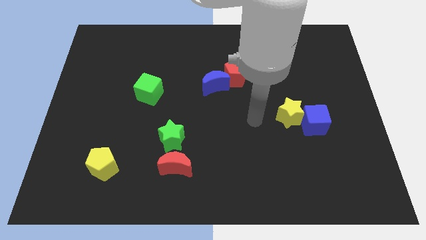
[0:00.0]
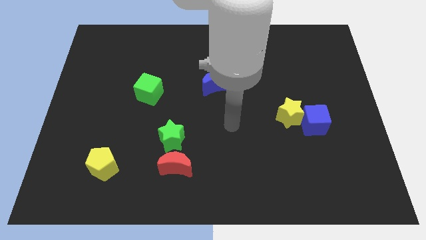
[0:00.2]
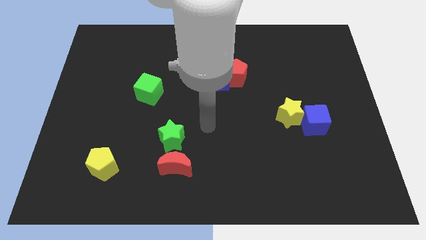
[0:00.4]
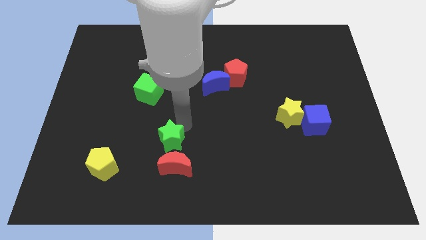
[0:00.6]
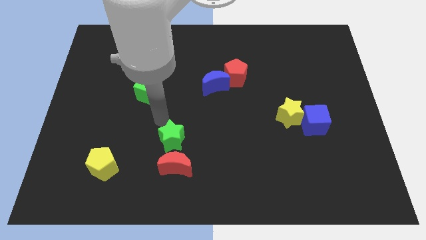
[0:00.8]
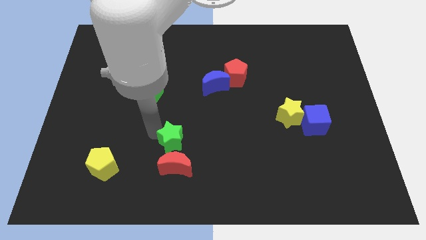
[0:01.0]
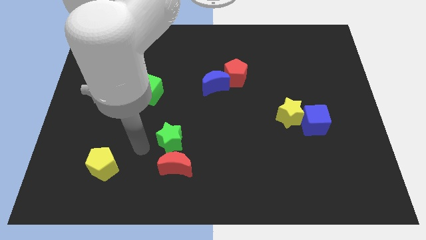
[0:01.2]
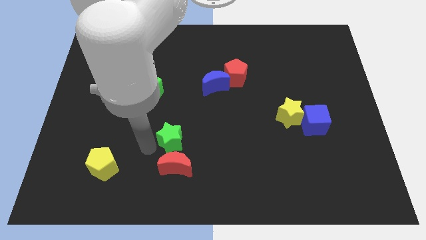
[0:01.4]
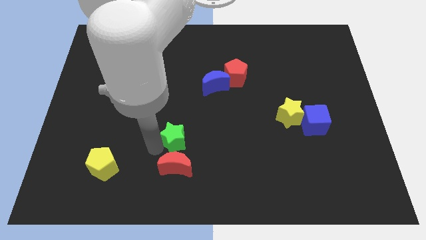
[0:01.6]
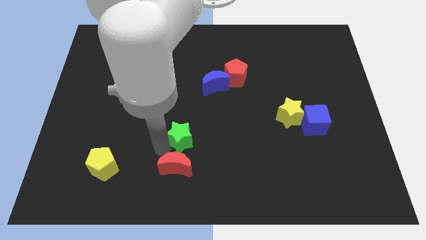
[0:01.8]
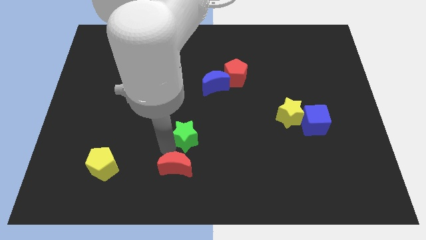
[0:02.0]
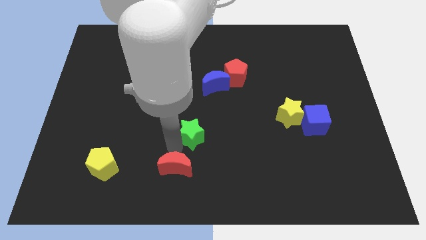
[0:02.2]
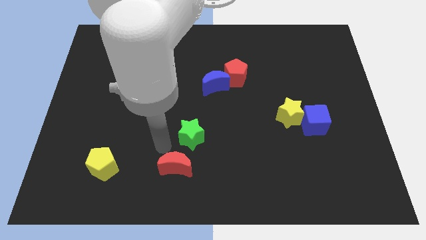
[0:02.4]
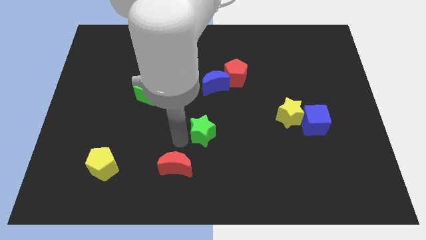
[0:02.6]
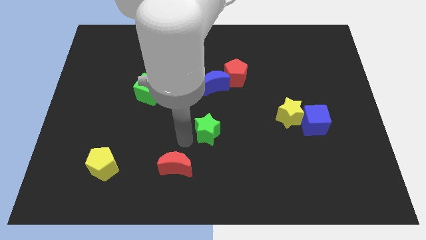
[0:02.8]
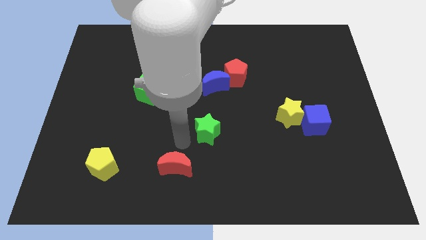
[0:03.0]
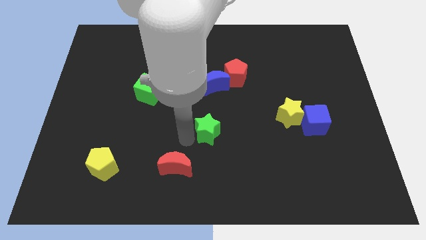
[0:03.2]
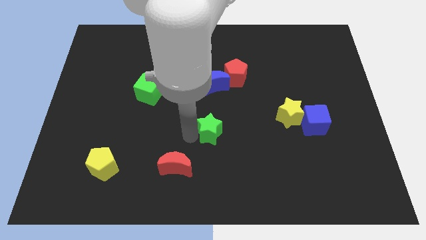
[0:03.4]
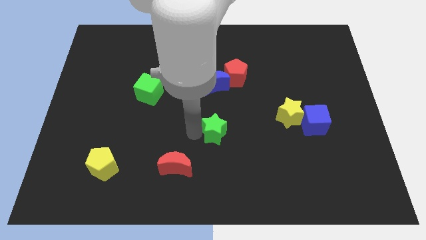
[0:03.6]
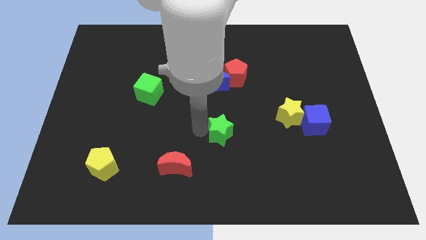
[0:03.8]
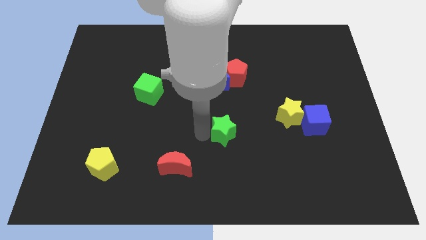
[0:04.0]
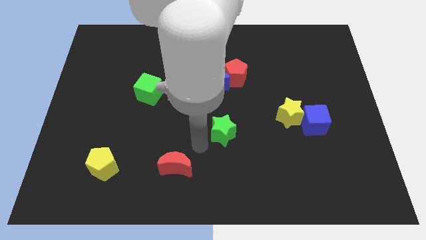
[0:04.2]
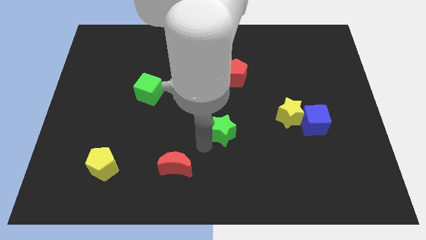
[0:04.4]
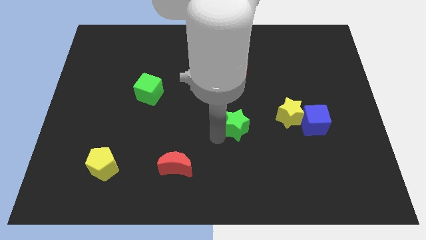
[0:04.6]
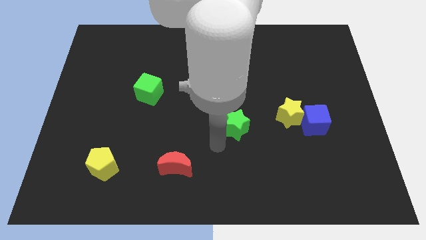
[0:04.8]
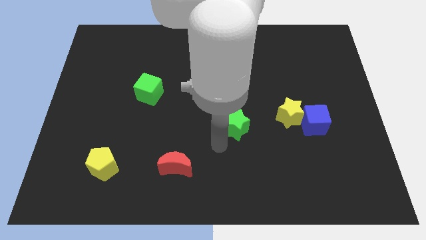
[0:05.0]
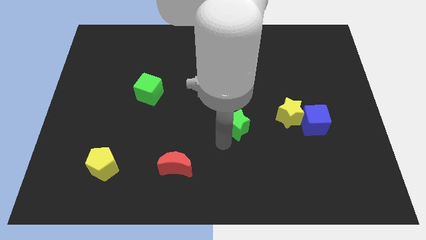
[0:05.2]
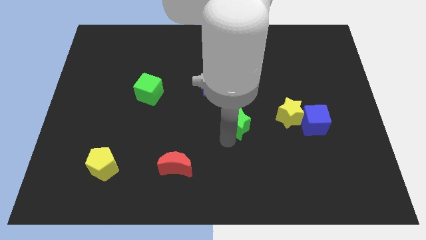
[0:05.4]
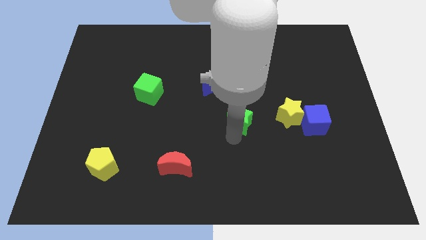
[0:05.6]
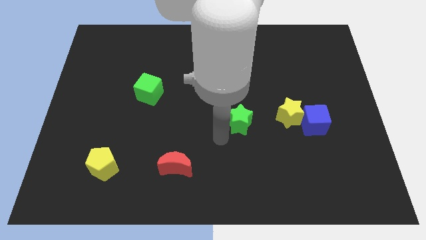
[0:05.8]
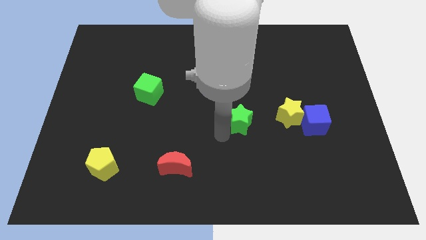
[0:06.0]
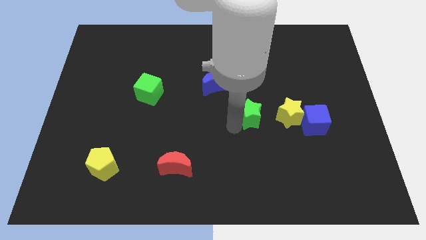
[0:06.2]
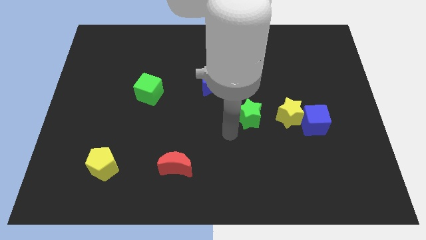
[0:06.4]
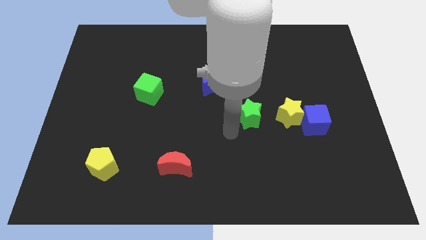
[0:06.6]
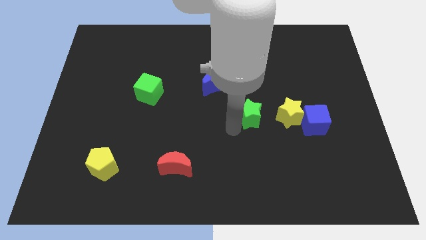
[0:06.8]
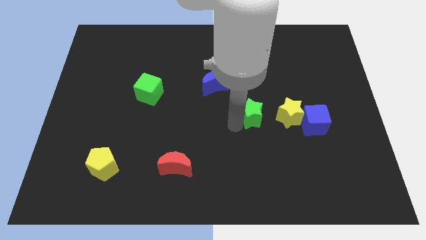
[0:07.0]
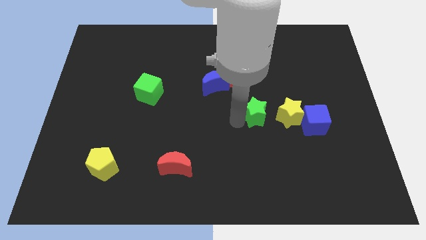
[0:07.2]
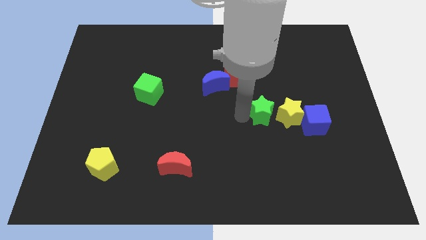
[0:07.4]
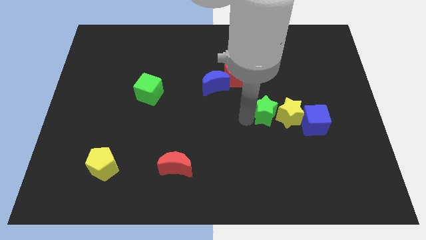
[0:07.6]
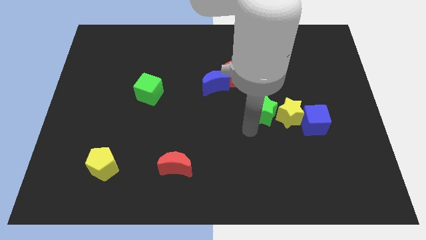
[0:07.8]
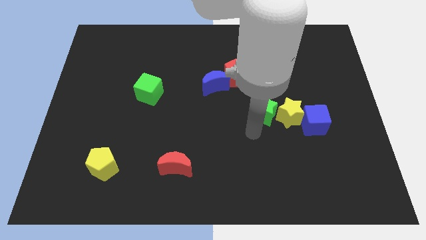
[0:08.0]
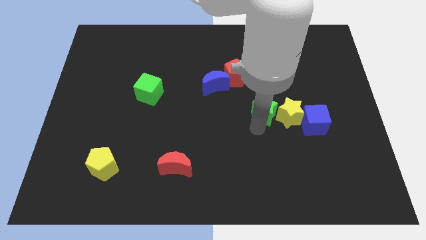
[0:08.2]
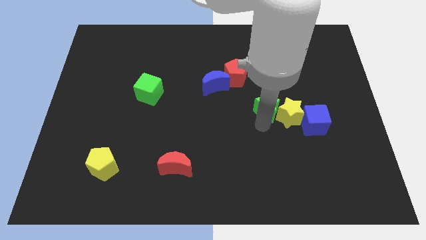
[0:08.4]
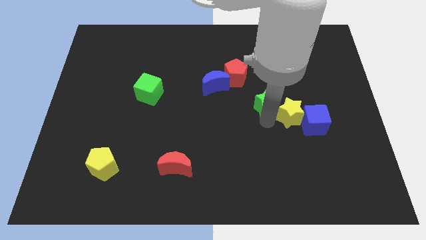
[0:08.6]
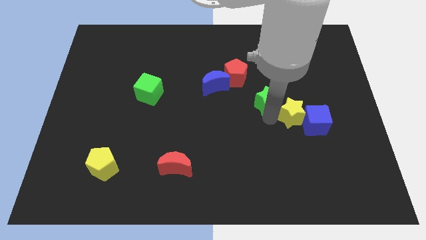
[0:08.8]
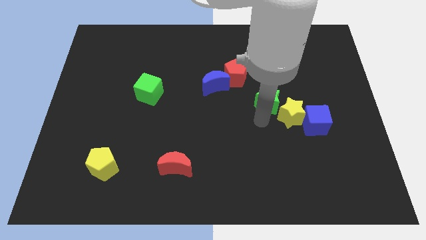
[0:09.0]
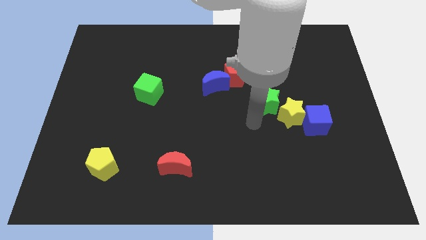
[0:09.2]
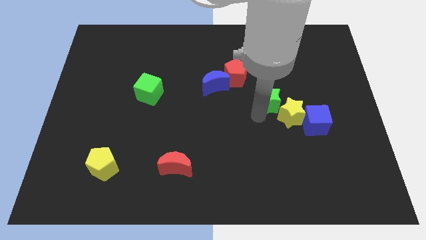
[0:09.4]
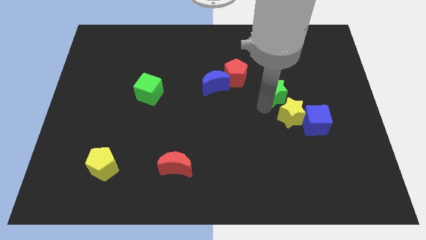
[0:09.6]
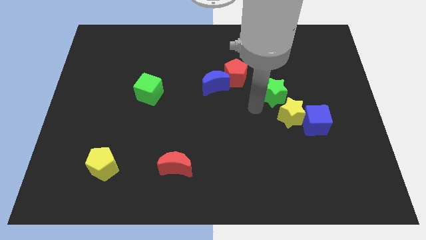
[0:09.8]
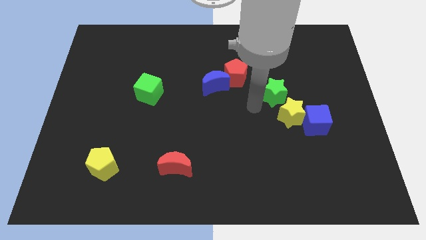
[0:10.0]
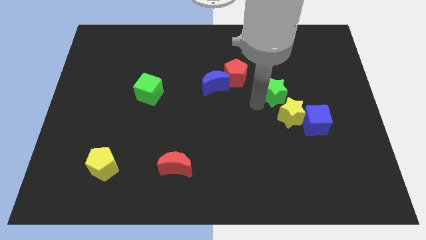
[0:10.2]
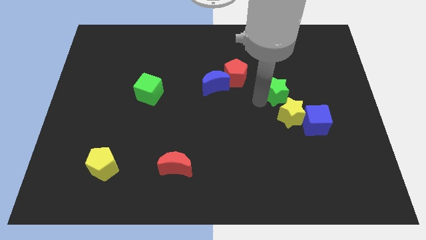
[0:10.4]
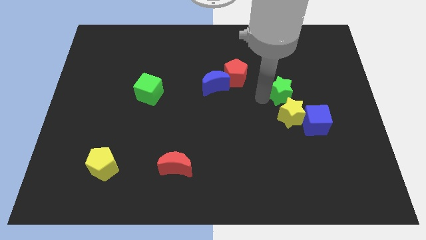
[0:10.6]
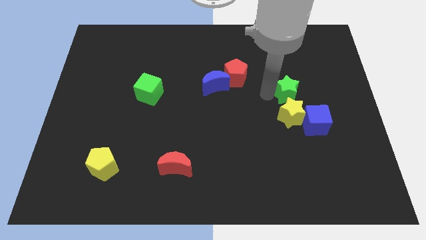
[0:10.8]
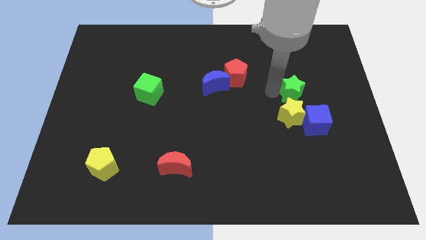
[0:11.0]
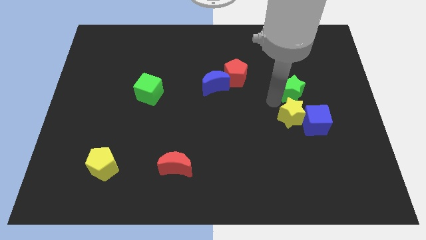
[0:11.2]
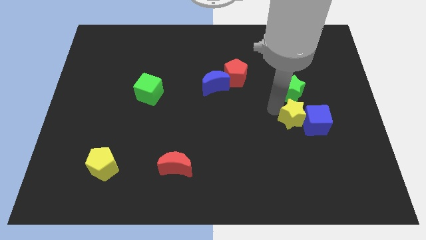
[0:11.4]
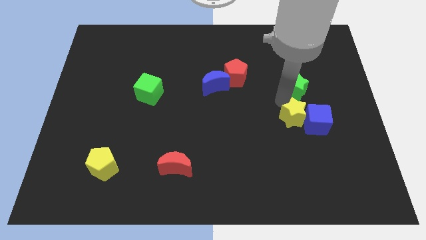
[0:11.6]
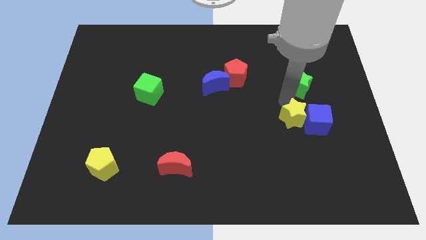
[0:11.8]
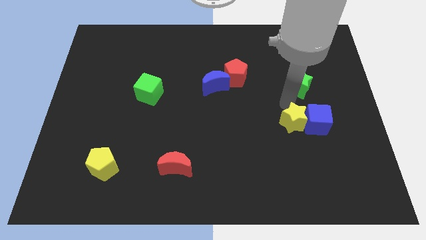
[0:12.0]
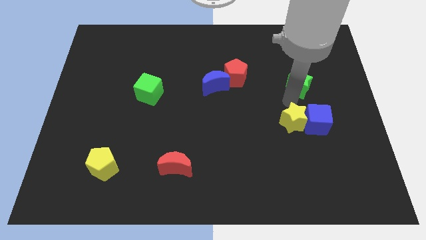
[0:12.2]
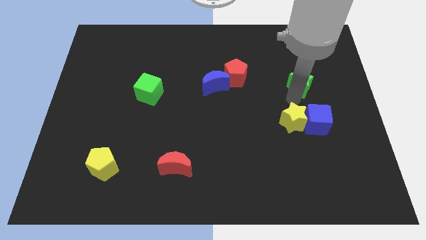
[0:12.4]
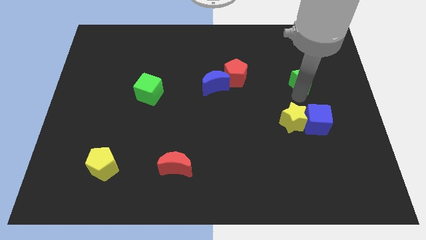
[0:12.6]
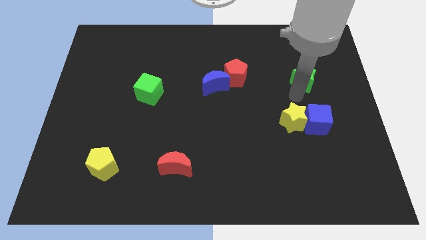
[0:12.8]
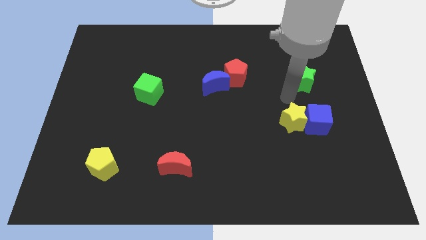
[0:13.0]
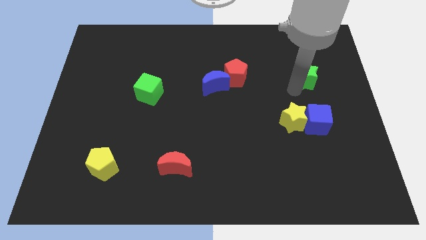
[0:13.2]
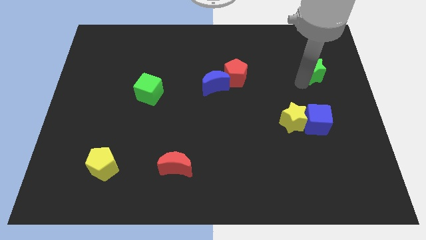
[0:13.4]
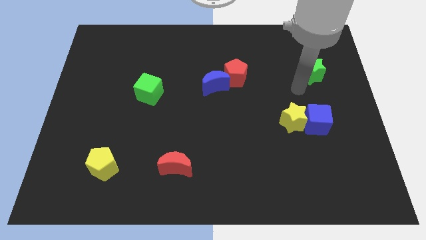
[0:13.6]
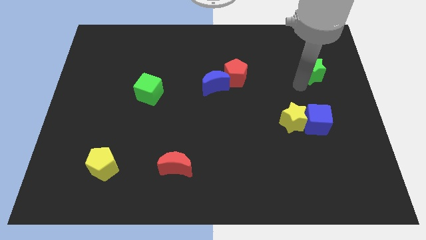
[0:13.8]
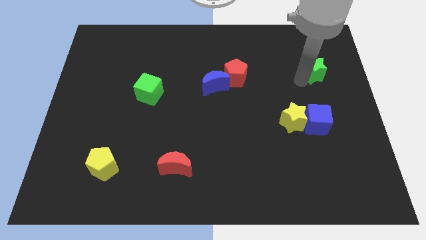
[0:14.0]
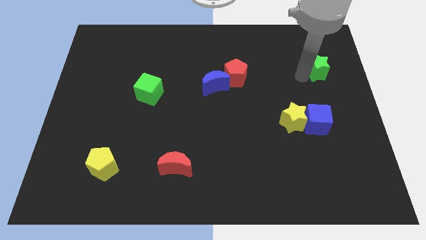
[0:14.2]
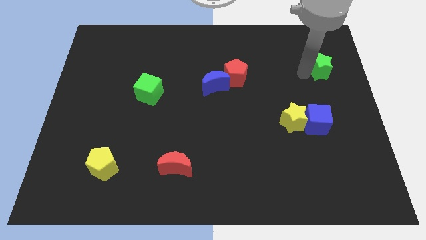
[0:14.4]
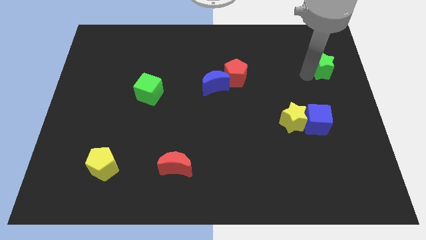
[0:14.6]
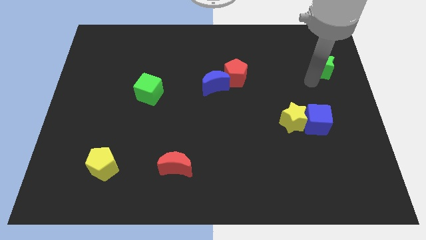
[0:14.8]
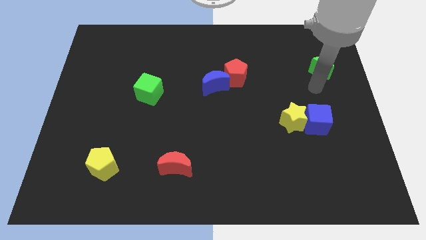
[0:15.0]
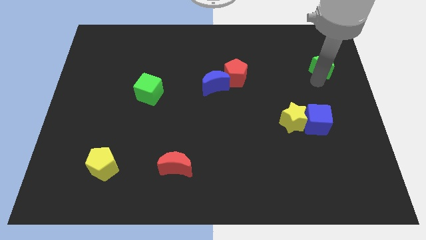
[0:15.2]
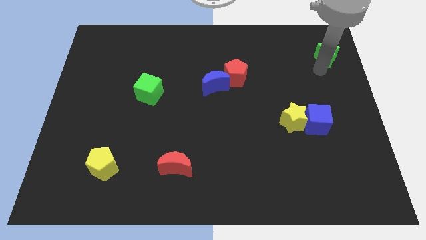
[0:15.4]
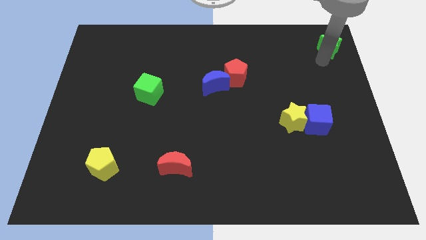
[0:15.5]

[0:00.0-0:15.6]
move the green star to the upper right corner
